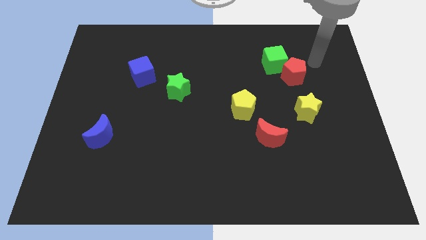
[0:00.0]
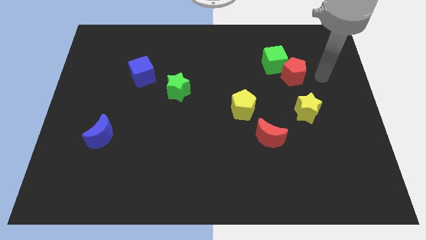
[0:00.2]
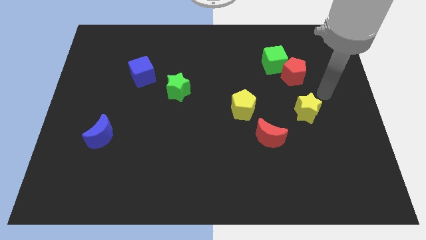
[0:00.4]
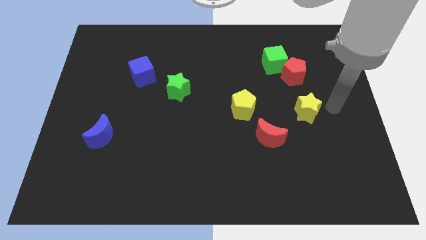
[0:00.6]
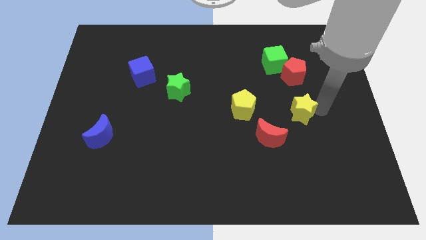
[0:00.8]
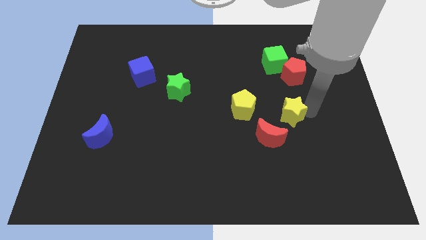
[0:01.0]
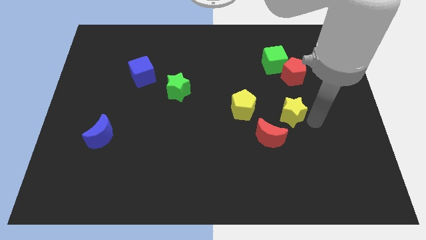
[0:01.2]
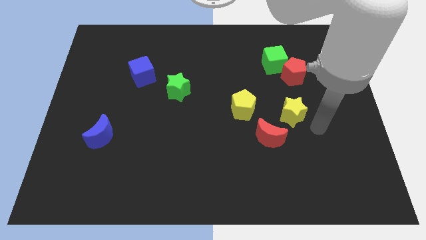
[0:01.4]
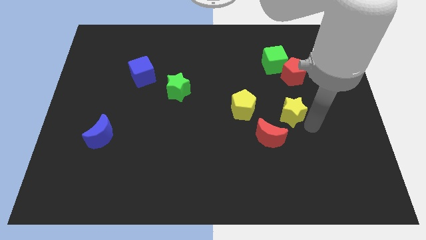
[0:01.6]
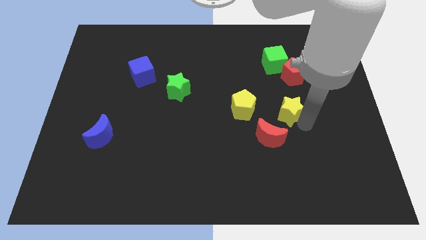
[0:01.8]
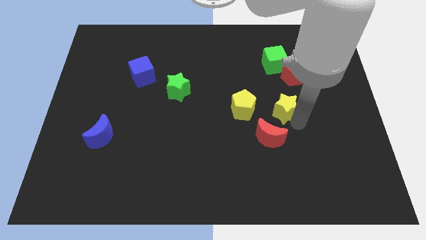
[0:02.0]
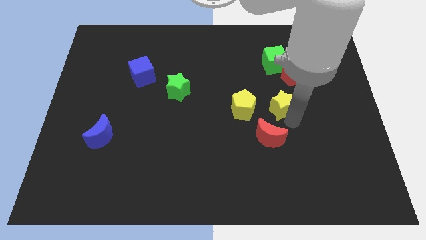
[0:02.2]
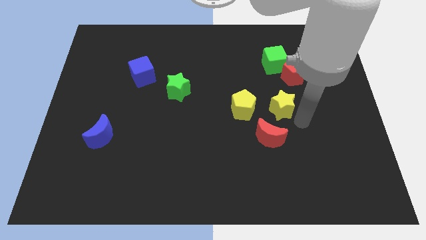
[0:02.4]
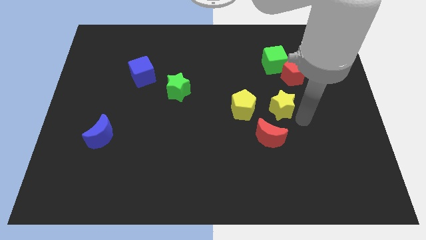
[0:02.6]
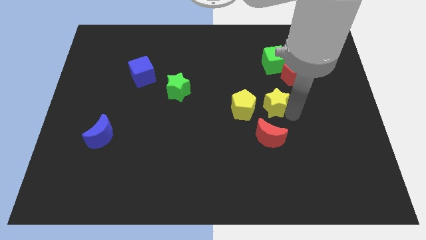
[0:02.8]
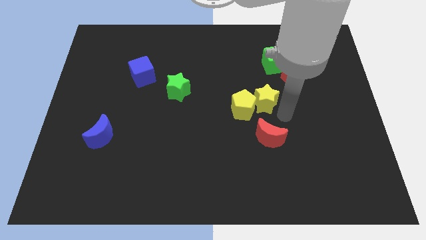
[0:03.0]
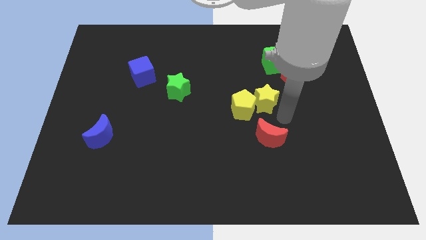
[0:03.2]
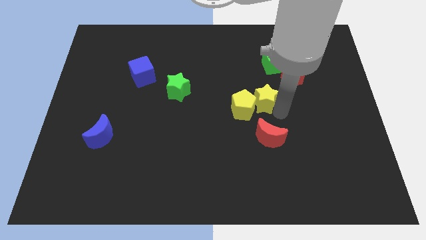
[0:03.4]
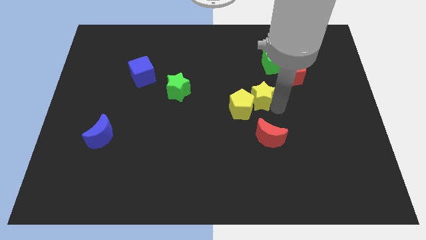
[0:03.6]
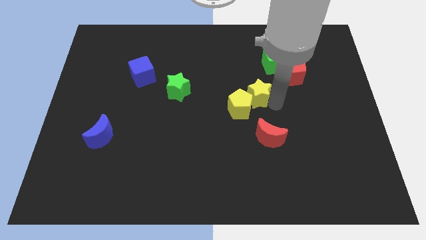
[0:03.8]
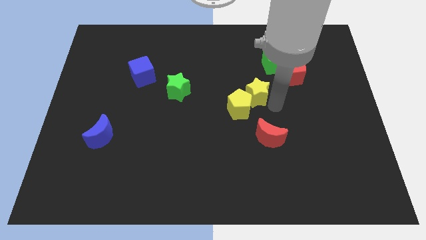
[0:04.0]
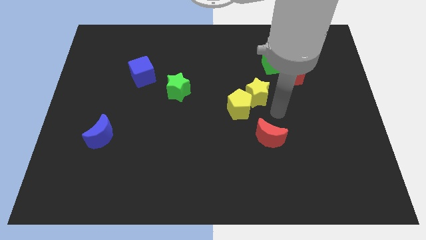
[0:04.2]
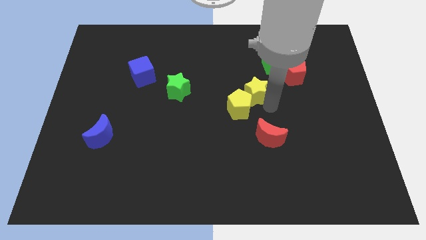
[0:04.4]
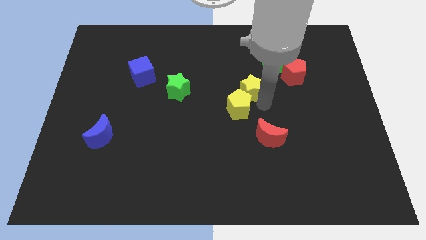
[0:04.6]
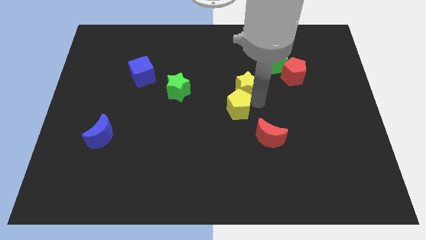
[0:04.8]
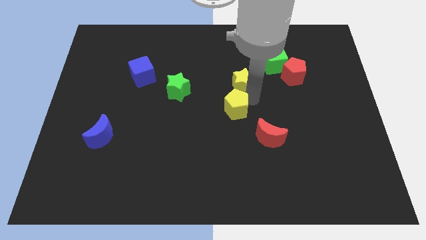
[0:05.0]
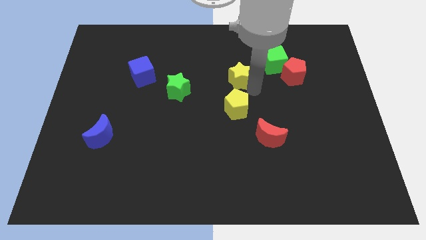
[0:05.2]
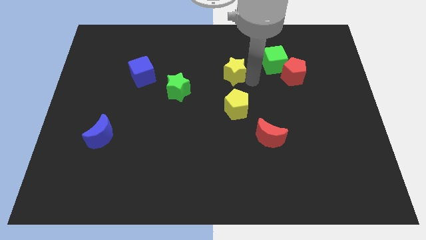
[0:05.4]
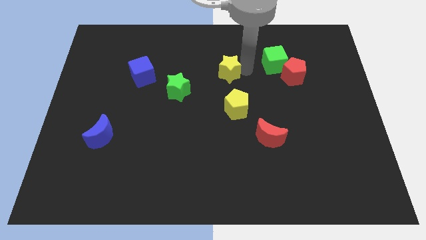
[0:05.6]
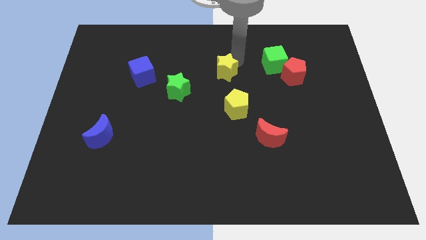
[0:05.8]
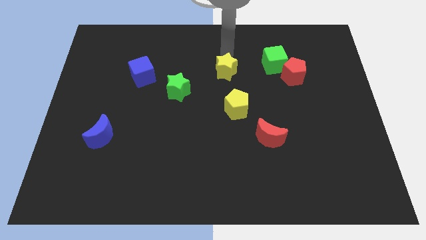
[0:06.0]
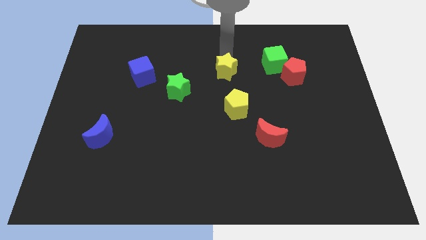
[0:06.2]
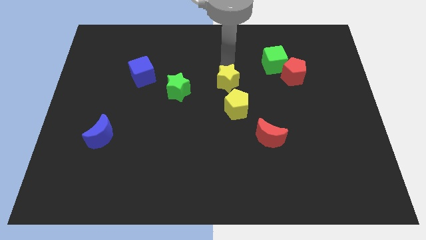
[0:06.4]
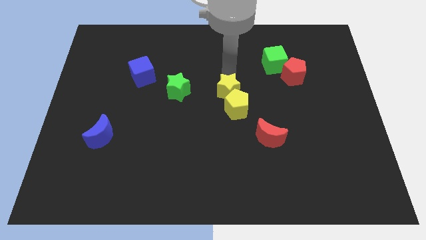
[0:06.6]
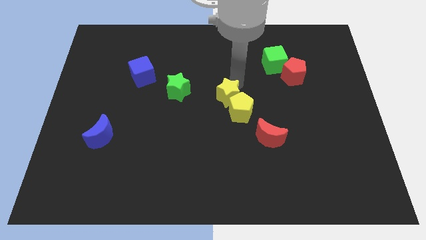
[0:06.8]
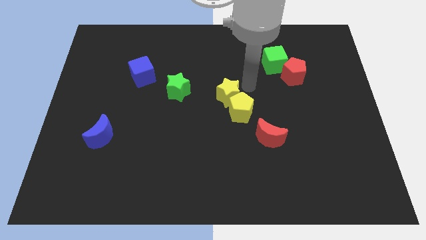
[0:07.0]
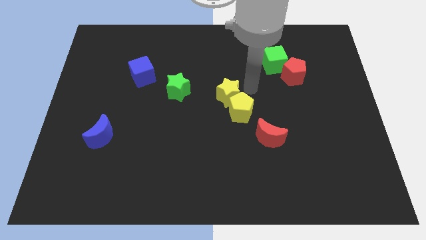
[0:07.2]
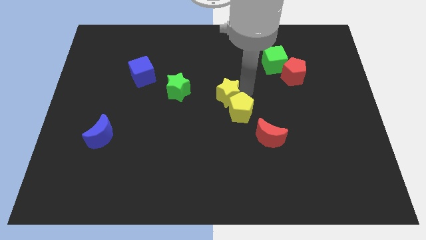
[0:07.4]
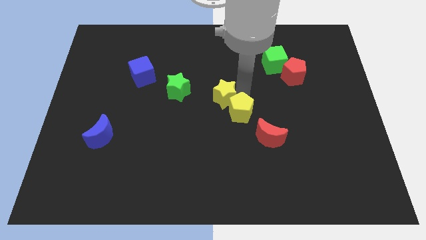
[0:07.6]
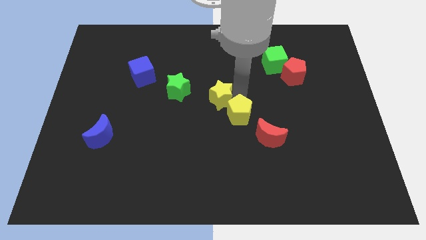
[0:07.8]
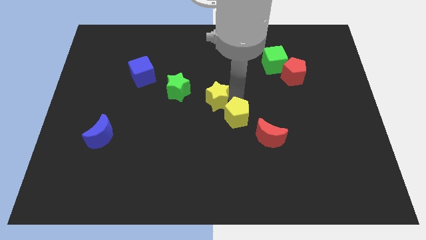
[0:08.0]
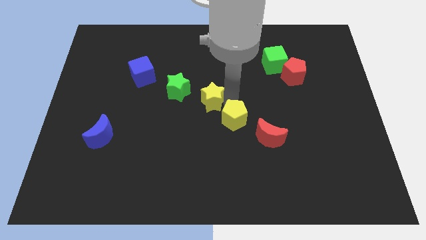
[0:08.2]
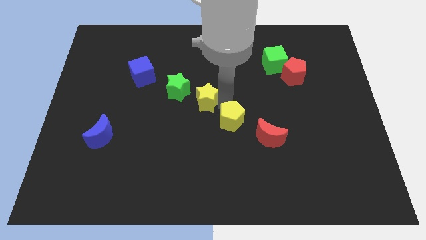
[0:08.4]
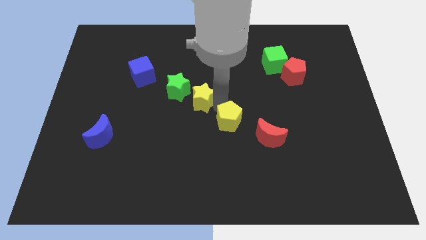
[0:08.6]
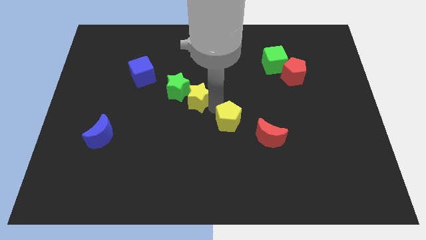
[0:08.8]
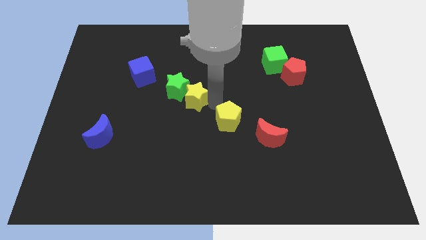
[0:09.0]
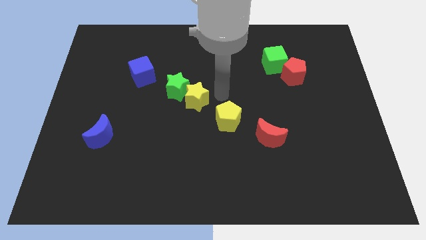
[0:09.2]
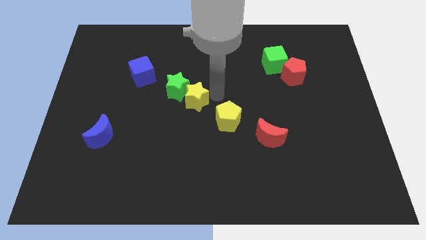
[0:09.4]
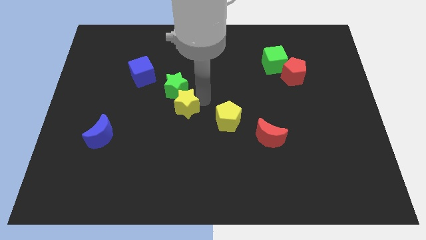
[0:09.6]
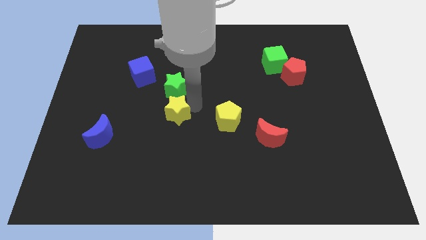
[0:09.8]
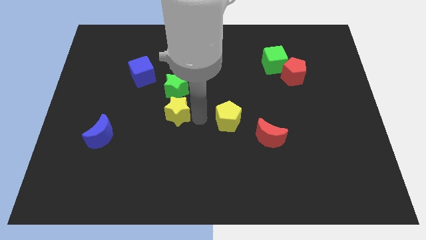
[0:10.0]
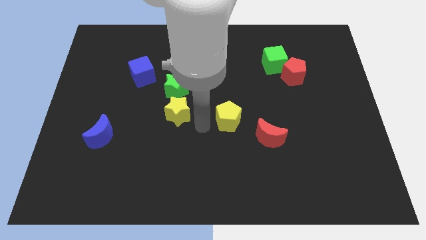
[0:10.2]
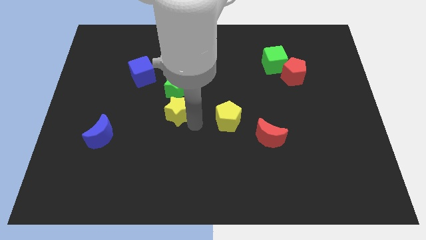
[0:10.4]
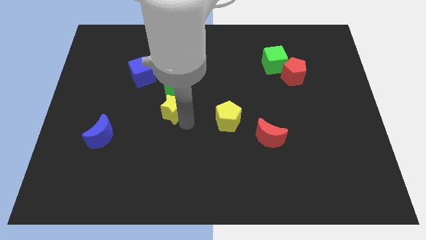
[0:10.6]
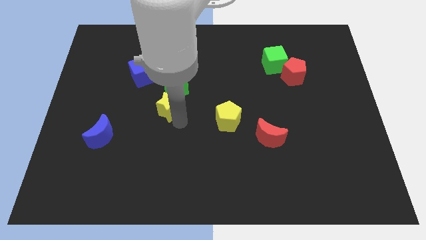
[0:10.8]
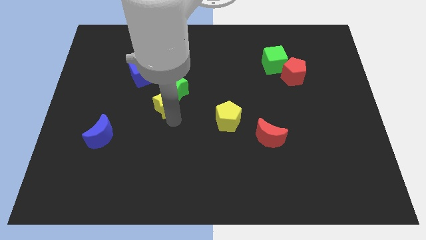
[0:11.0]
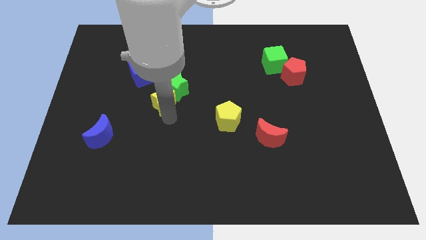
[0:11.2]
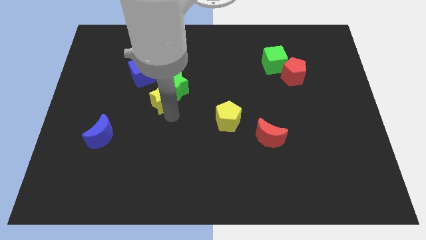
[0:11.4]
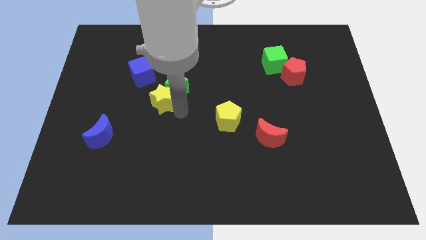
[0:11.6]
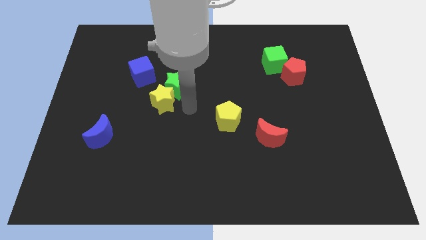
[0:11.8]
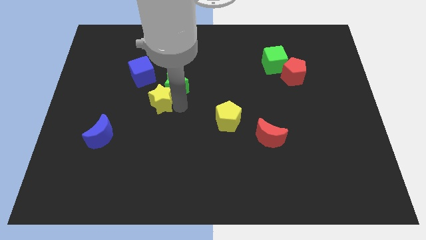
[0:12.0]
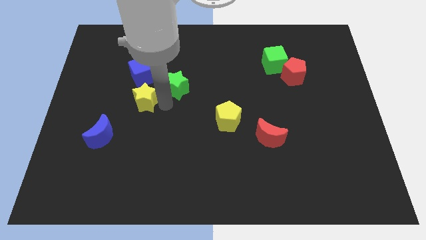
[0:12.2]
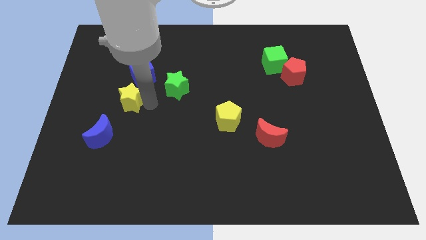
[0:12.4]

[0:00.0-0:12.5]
slide the yellow star to the bottom left of the blue cube

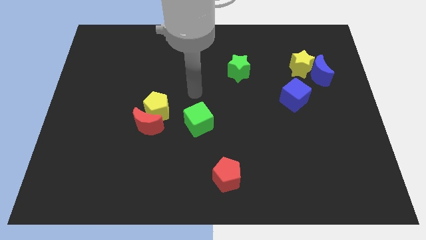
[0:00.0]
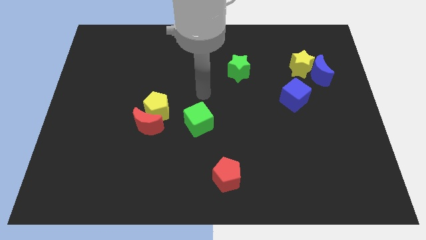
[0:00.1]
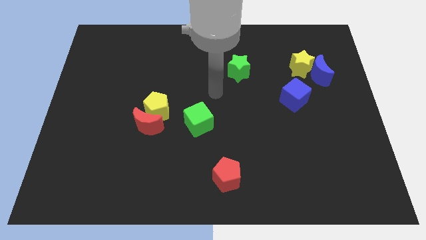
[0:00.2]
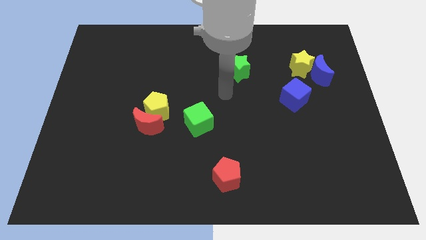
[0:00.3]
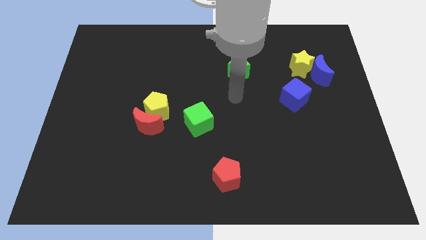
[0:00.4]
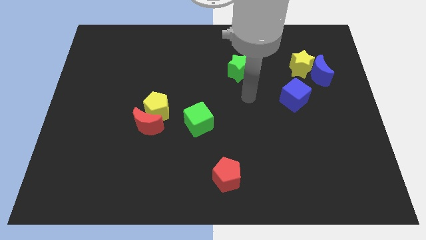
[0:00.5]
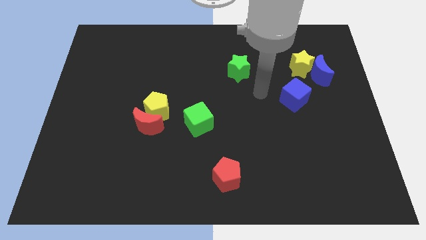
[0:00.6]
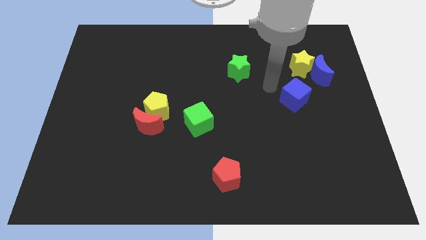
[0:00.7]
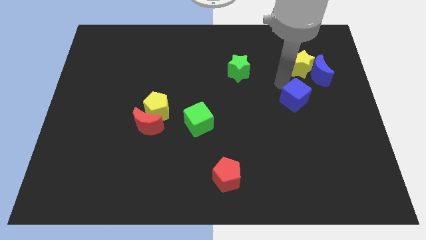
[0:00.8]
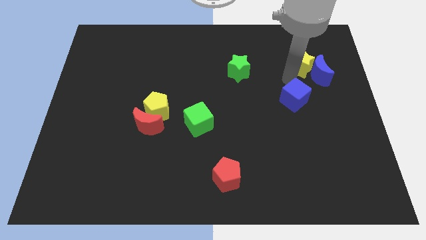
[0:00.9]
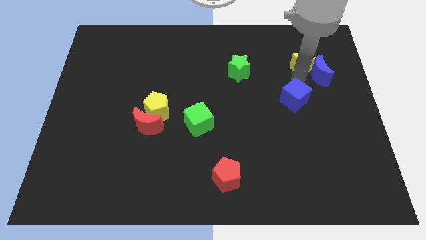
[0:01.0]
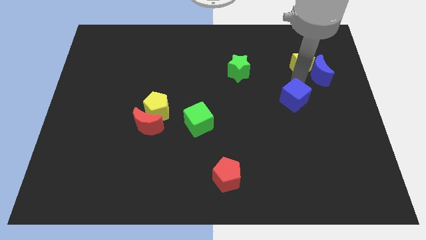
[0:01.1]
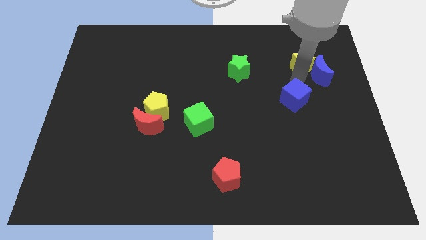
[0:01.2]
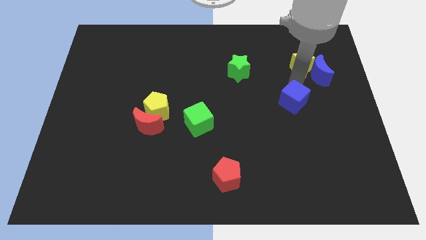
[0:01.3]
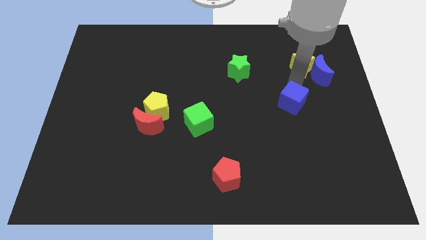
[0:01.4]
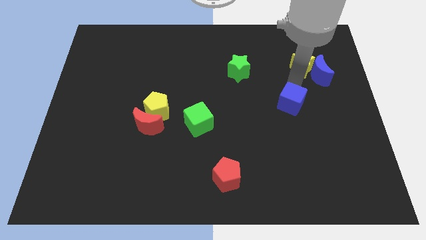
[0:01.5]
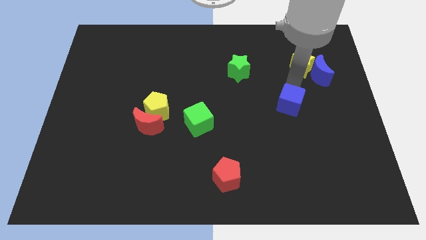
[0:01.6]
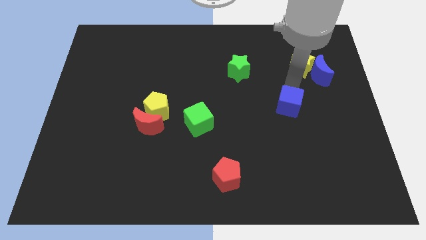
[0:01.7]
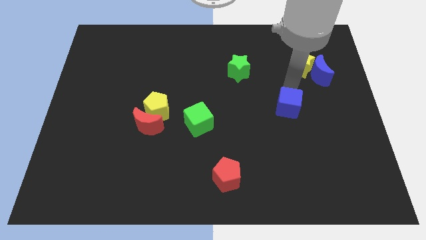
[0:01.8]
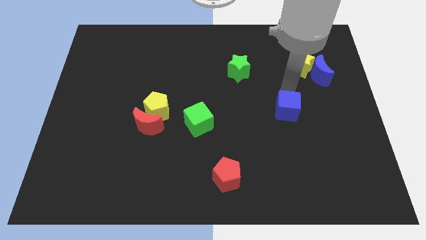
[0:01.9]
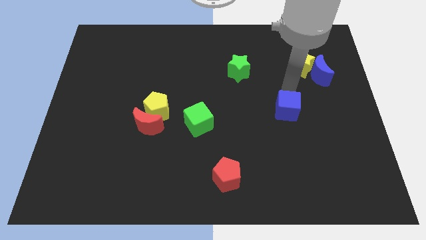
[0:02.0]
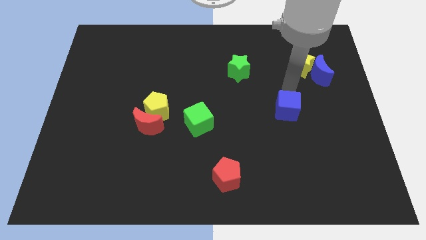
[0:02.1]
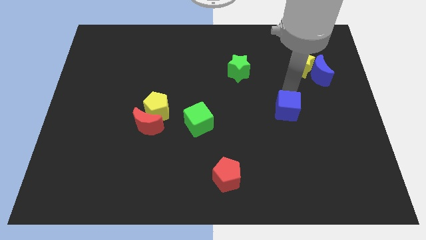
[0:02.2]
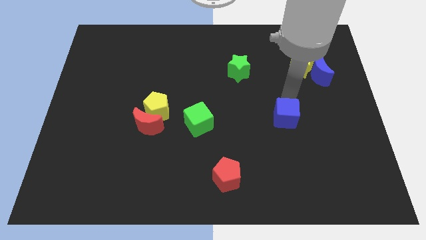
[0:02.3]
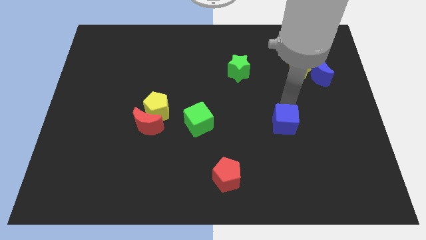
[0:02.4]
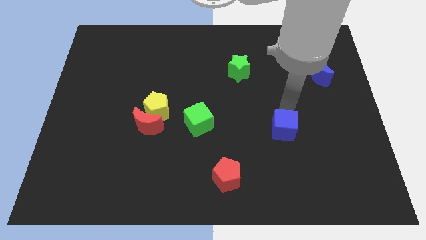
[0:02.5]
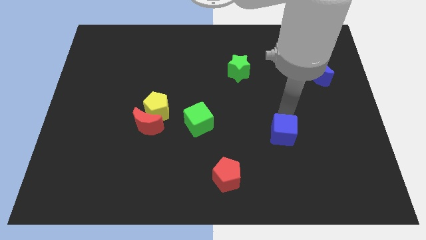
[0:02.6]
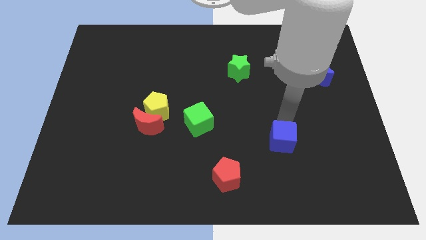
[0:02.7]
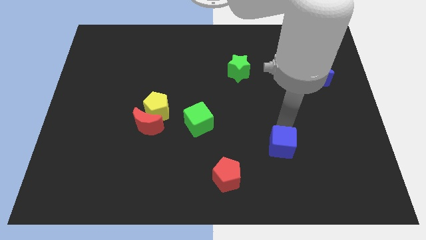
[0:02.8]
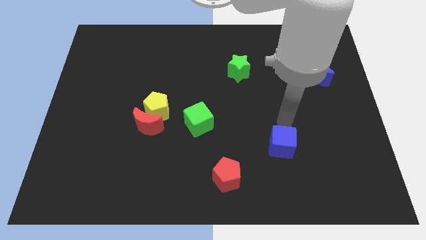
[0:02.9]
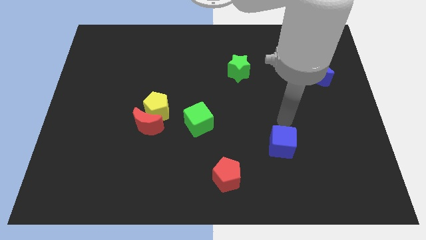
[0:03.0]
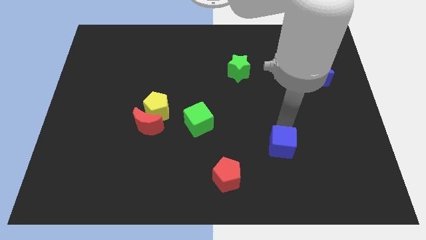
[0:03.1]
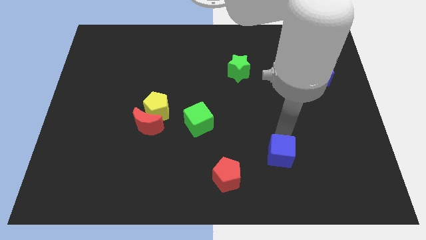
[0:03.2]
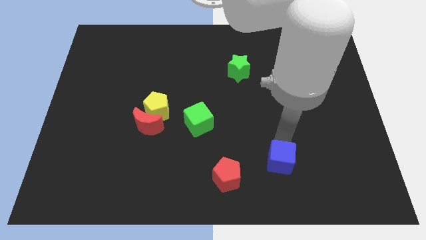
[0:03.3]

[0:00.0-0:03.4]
move the blue cube just right of the red pentagon
